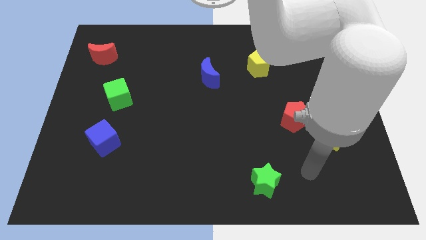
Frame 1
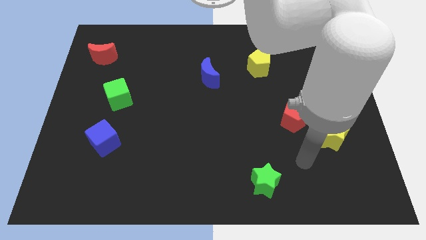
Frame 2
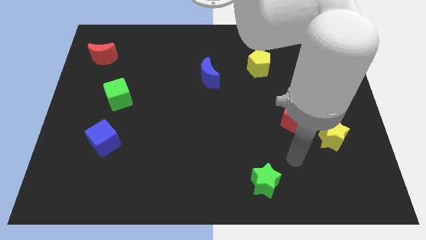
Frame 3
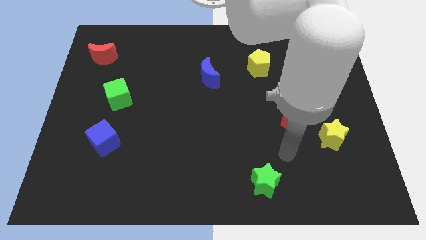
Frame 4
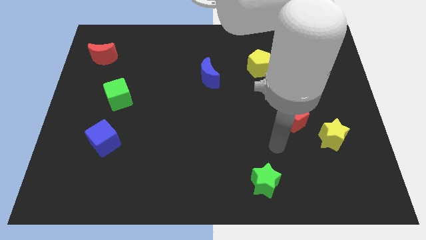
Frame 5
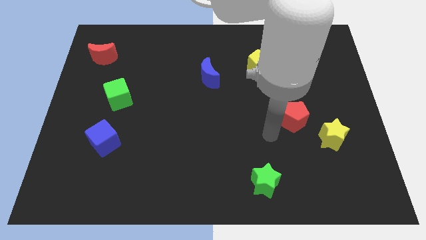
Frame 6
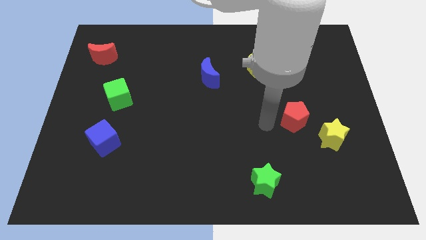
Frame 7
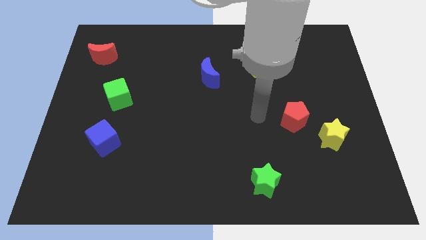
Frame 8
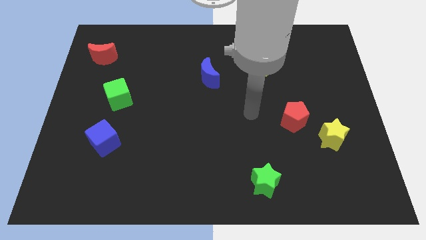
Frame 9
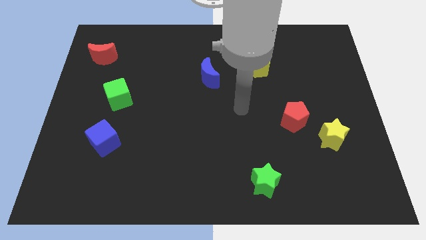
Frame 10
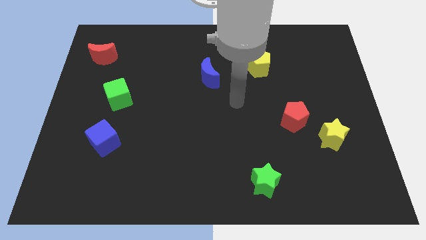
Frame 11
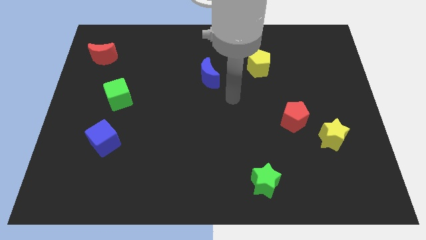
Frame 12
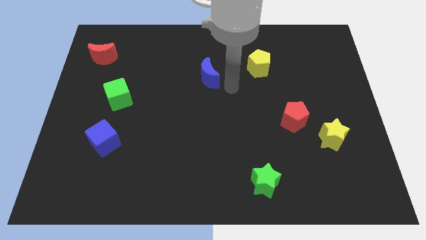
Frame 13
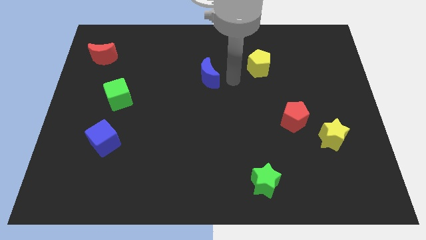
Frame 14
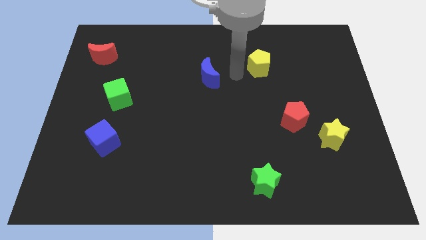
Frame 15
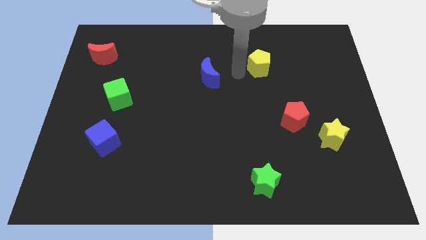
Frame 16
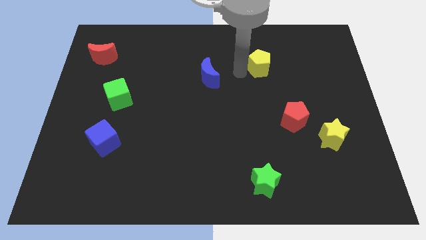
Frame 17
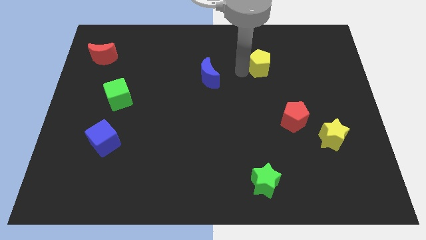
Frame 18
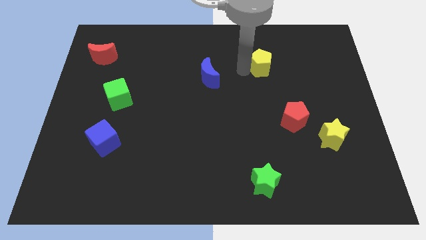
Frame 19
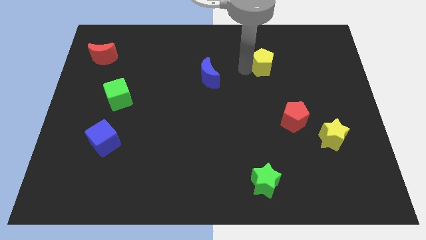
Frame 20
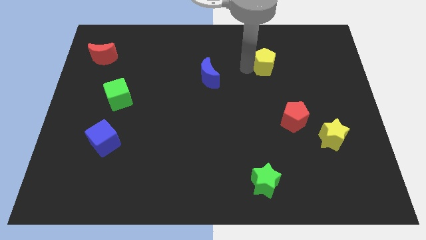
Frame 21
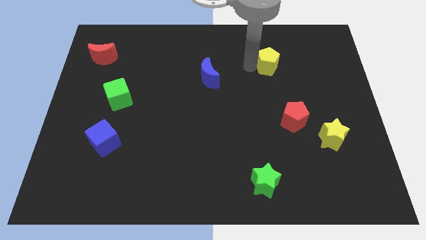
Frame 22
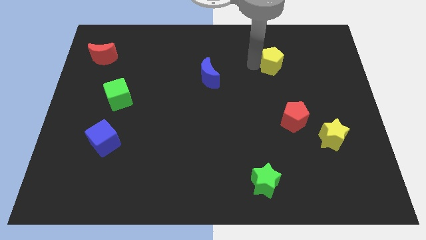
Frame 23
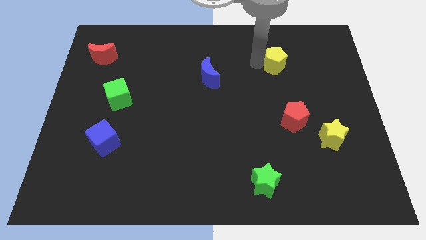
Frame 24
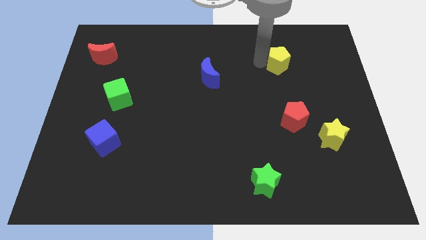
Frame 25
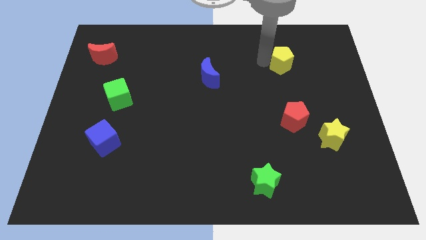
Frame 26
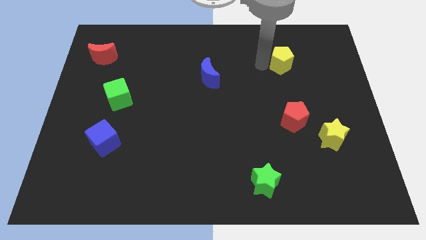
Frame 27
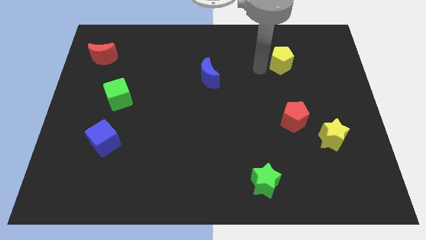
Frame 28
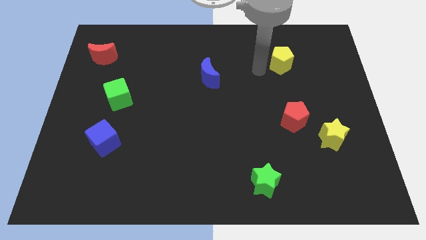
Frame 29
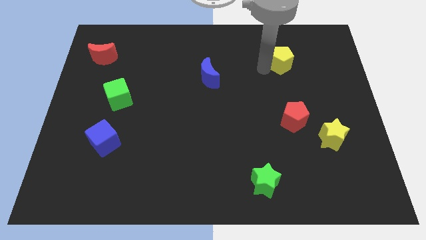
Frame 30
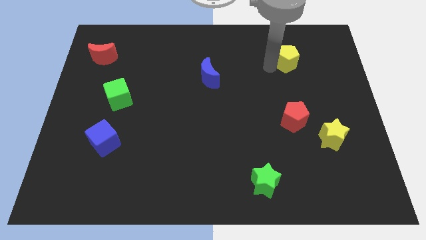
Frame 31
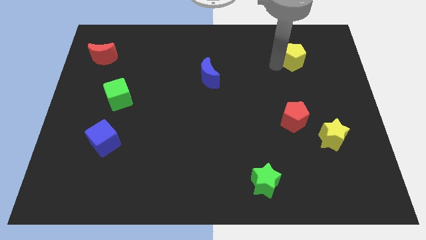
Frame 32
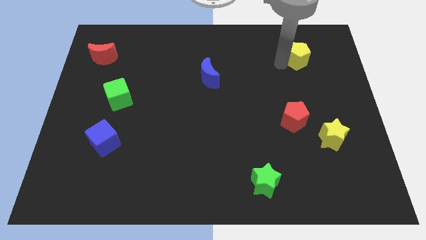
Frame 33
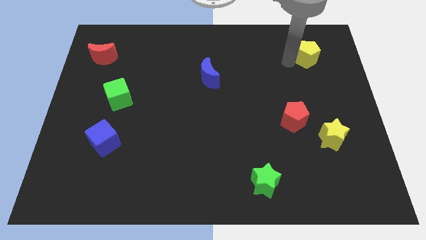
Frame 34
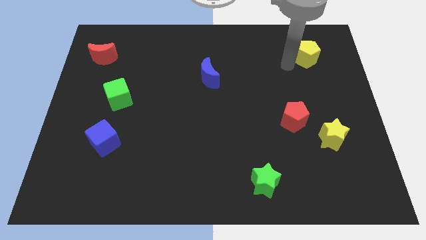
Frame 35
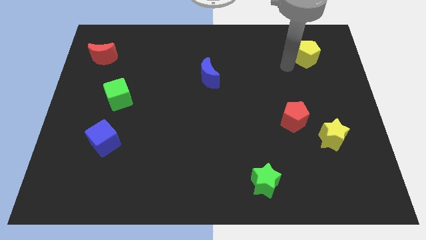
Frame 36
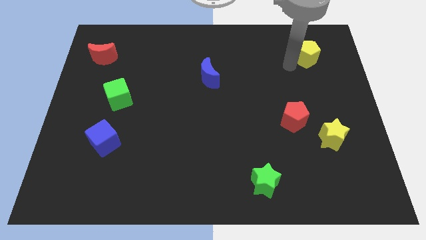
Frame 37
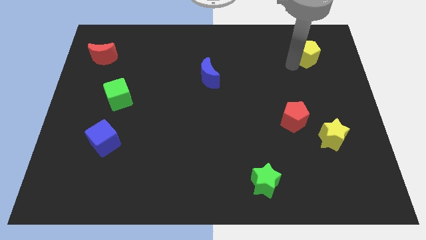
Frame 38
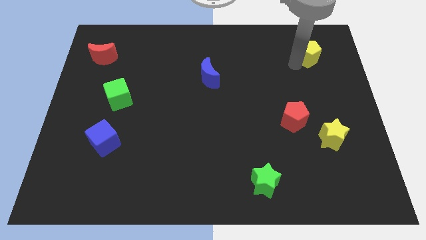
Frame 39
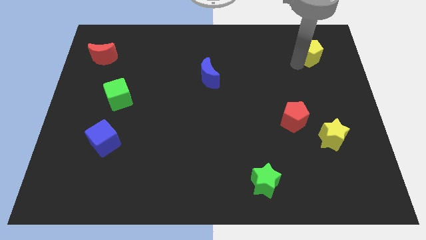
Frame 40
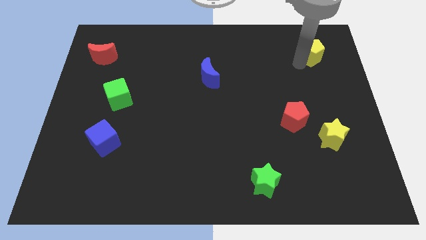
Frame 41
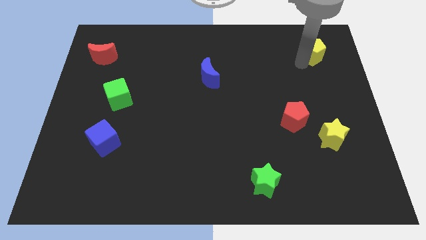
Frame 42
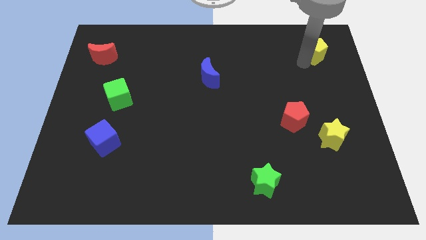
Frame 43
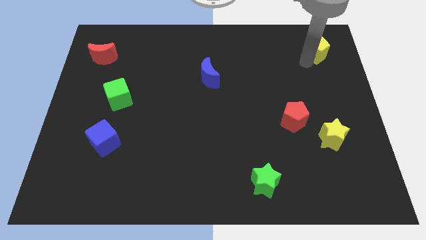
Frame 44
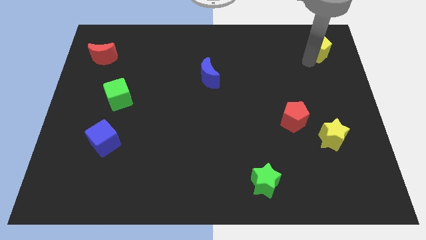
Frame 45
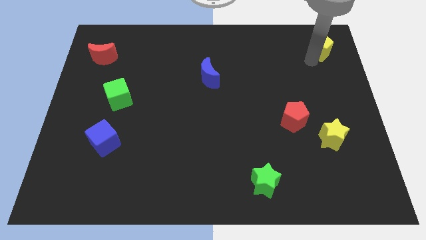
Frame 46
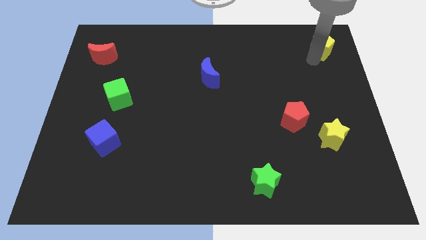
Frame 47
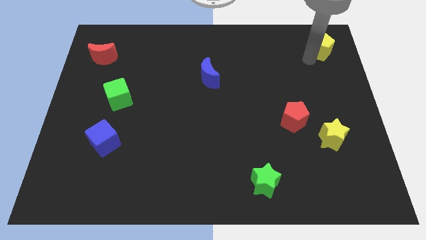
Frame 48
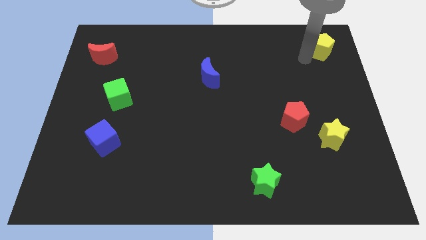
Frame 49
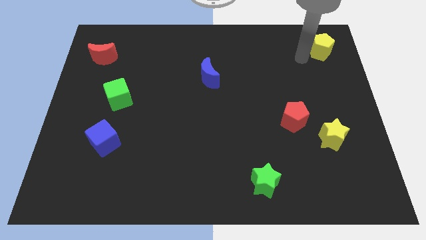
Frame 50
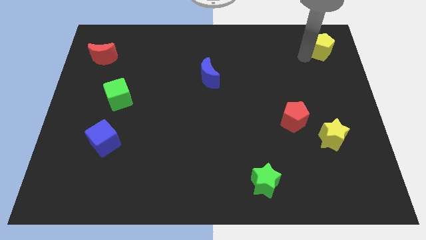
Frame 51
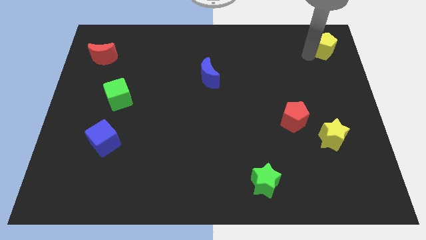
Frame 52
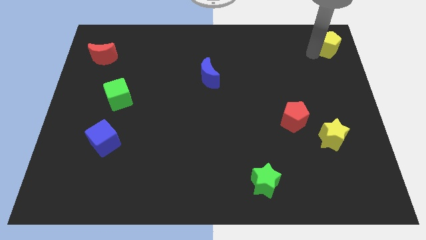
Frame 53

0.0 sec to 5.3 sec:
push the yellow pentagon to the top right corner

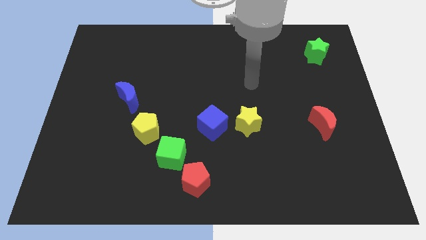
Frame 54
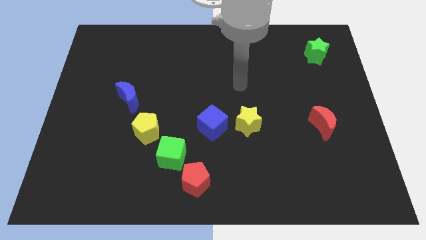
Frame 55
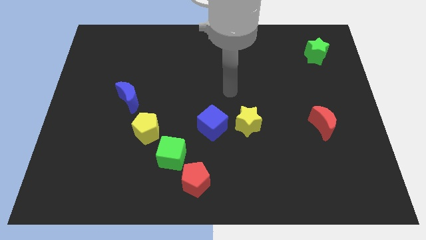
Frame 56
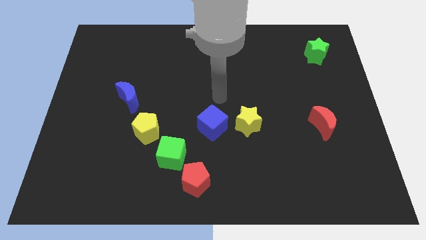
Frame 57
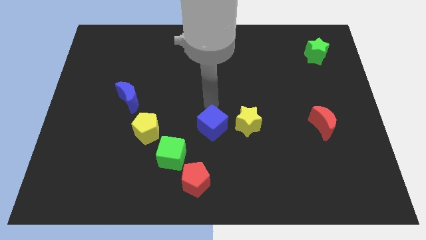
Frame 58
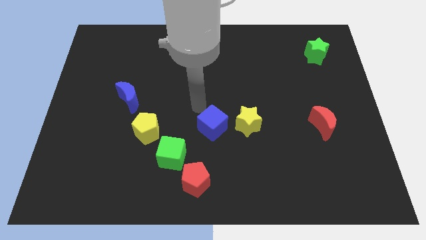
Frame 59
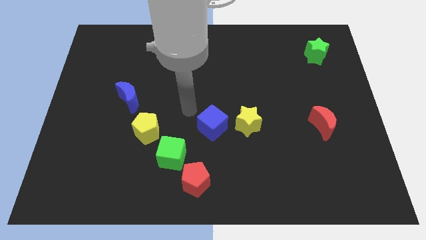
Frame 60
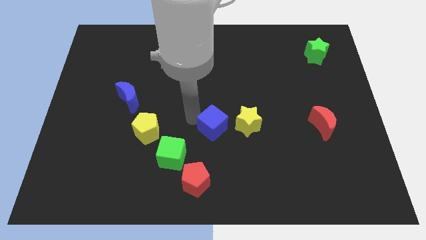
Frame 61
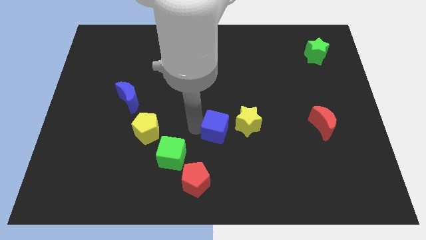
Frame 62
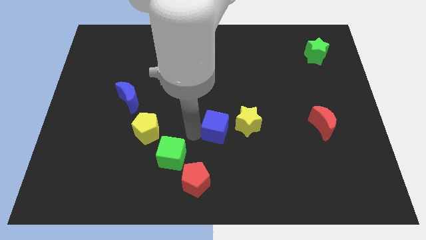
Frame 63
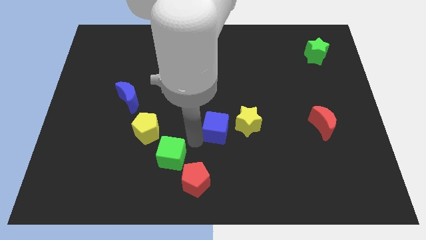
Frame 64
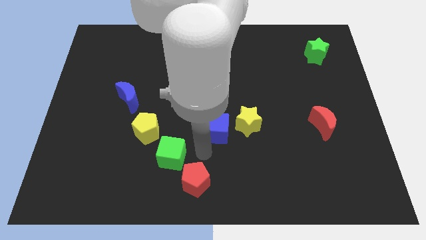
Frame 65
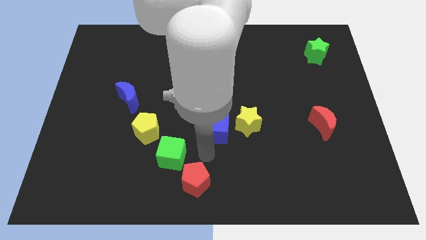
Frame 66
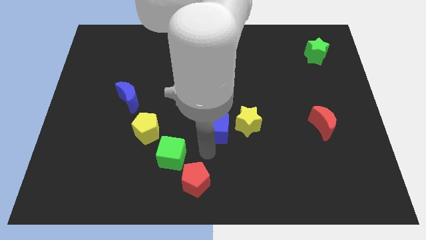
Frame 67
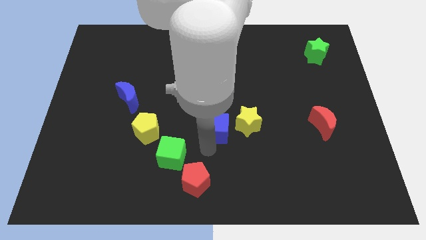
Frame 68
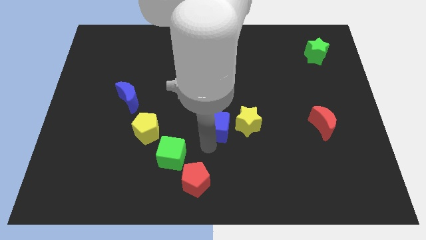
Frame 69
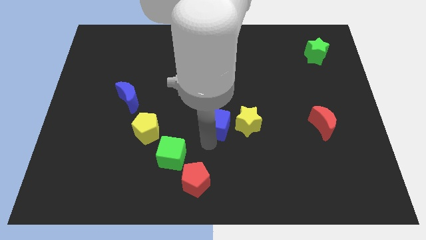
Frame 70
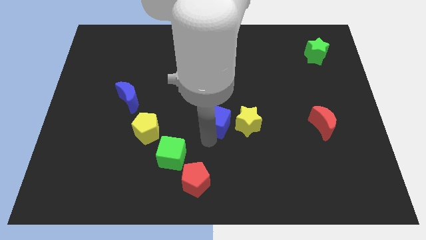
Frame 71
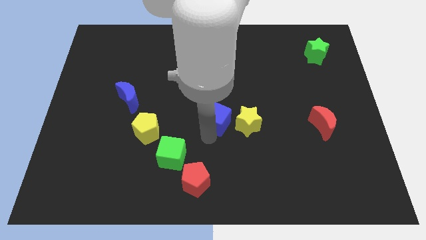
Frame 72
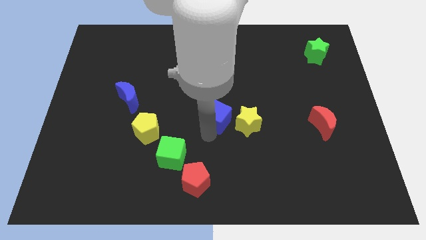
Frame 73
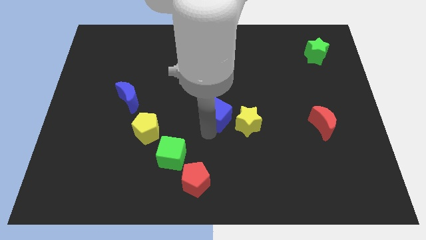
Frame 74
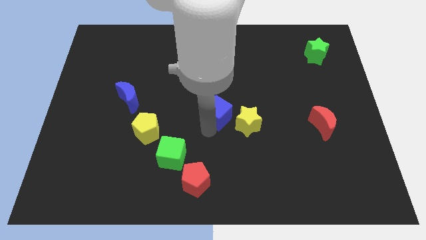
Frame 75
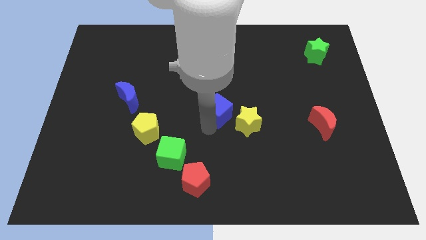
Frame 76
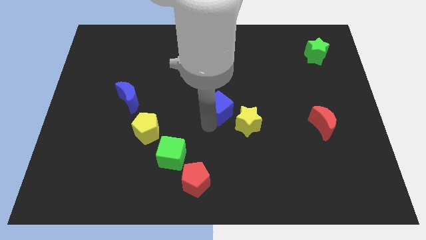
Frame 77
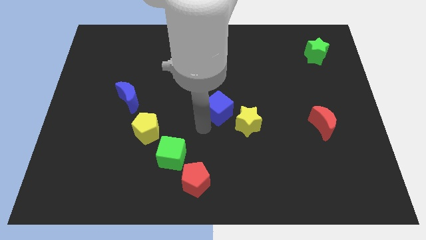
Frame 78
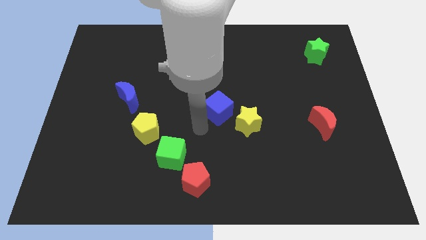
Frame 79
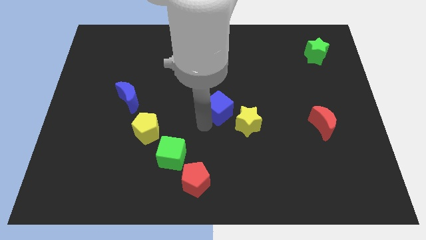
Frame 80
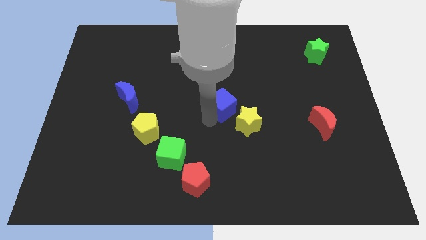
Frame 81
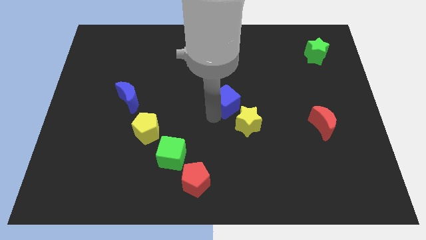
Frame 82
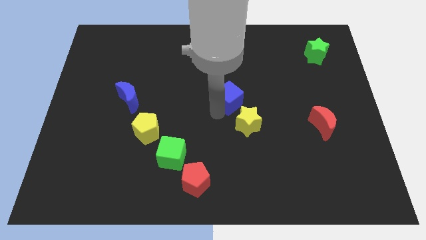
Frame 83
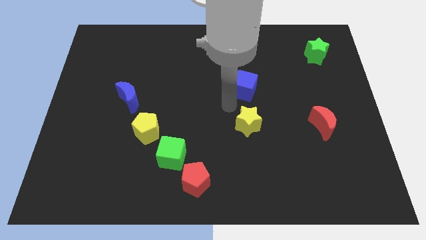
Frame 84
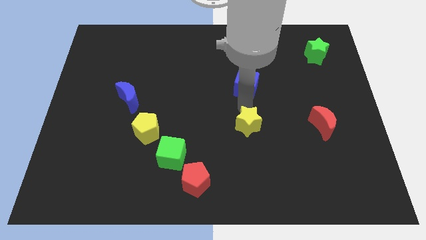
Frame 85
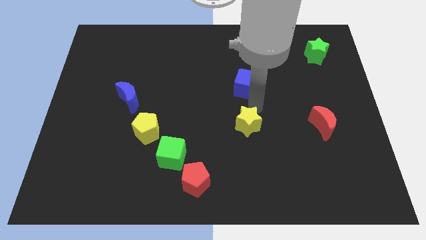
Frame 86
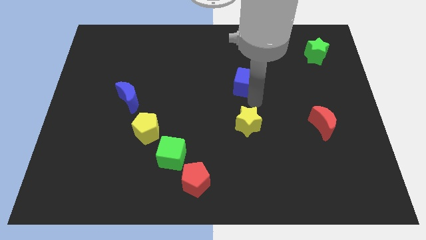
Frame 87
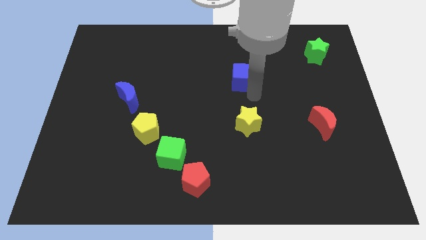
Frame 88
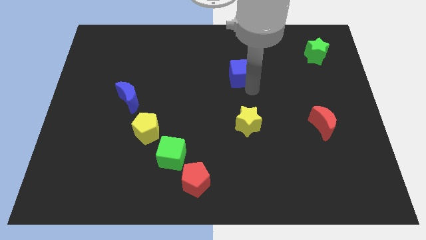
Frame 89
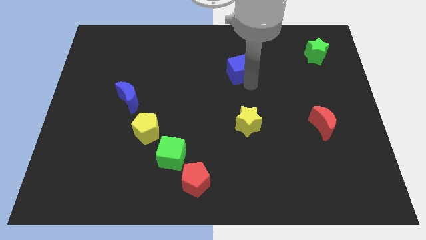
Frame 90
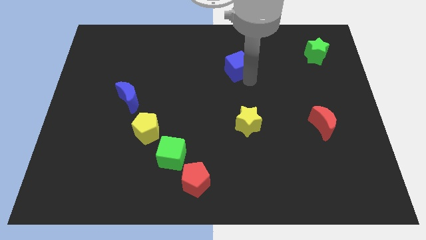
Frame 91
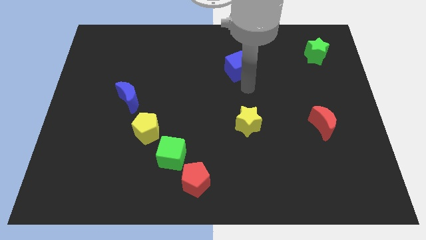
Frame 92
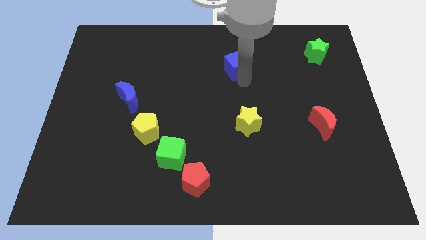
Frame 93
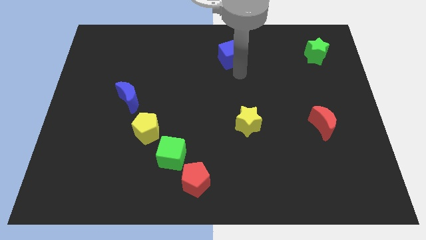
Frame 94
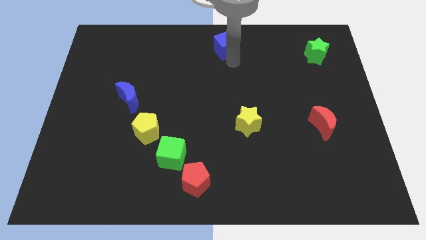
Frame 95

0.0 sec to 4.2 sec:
push the blue cube to the top
